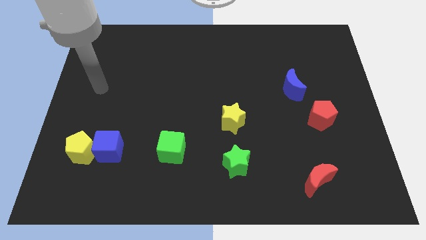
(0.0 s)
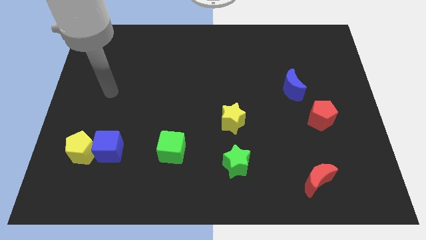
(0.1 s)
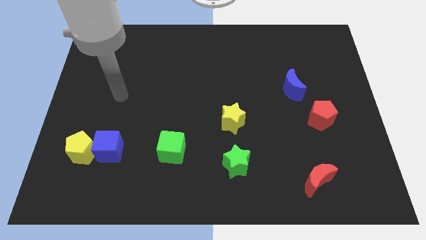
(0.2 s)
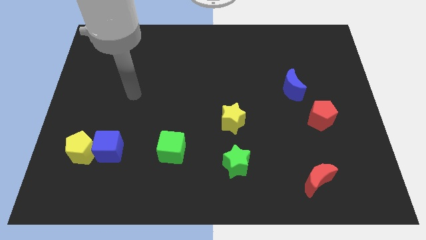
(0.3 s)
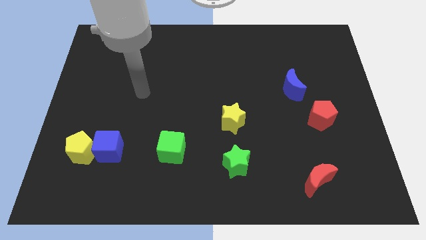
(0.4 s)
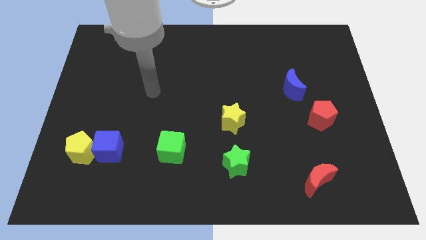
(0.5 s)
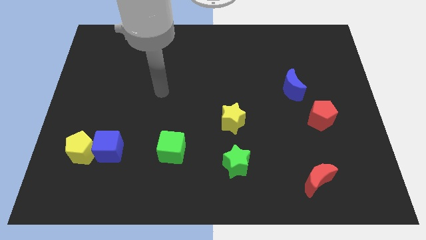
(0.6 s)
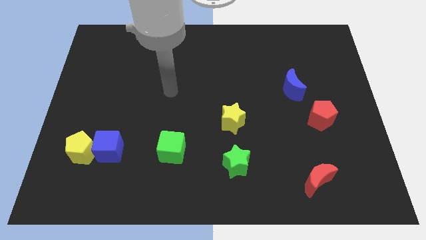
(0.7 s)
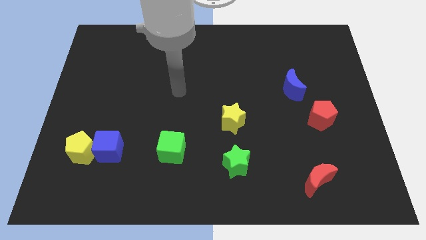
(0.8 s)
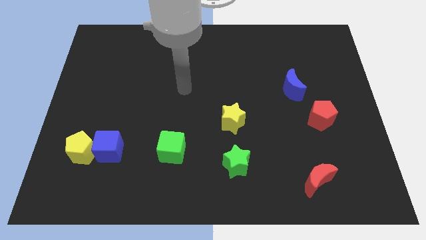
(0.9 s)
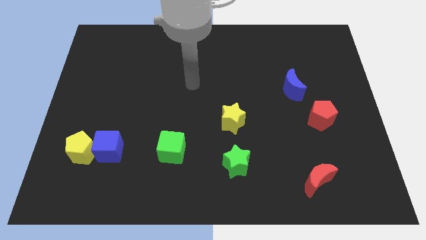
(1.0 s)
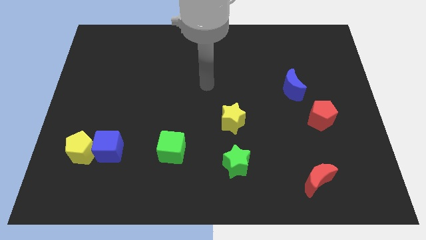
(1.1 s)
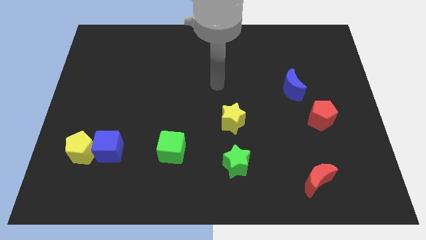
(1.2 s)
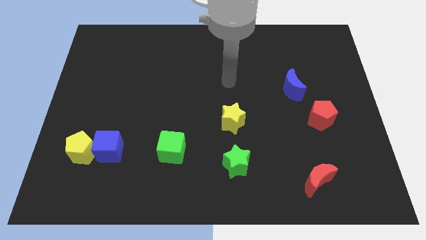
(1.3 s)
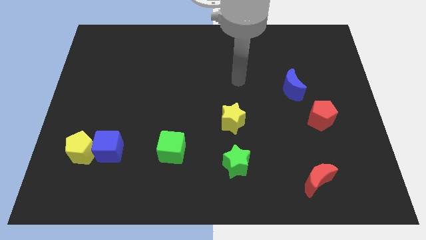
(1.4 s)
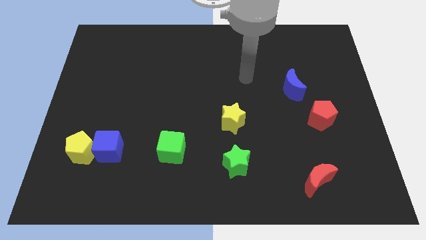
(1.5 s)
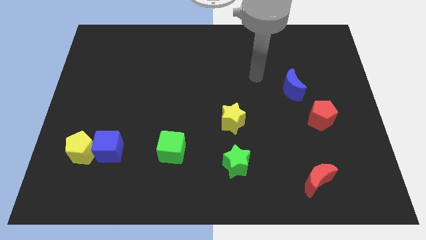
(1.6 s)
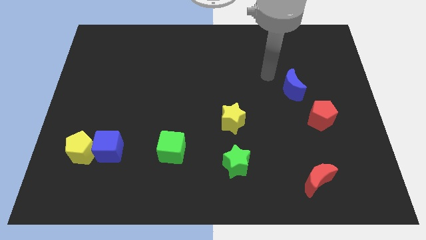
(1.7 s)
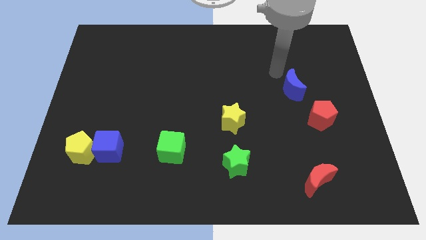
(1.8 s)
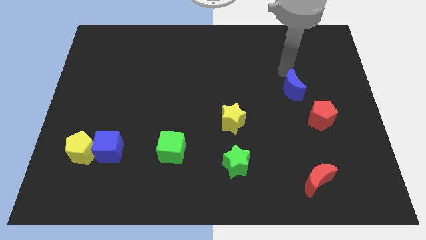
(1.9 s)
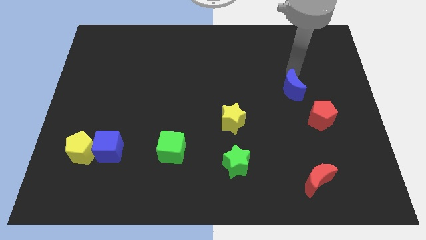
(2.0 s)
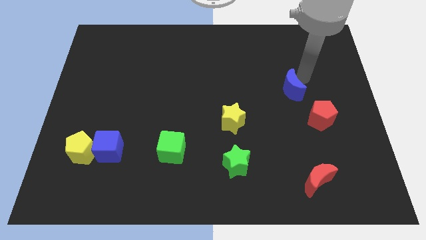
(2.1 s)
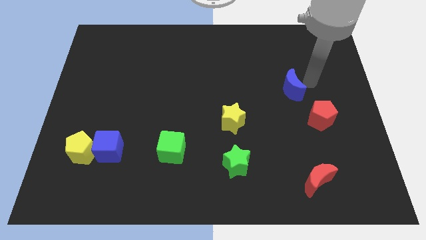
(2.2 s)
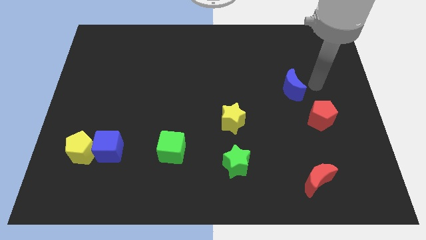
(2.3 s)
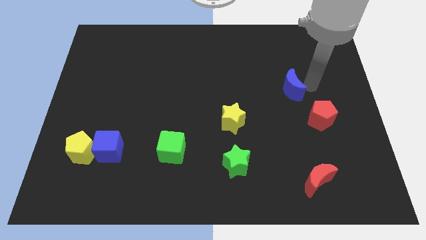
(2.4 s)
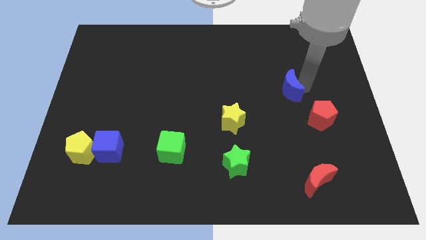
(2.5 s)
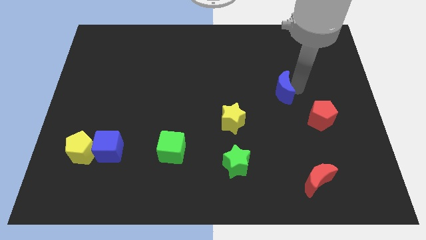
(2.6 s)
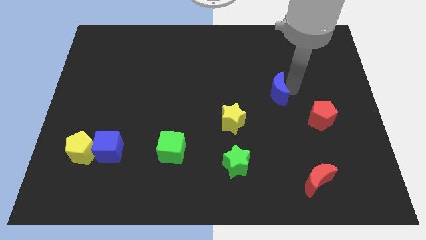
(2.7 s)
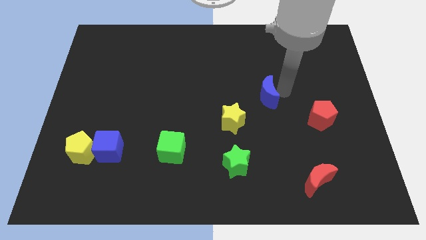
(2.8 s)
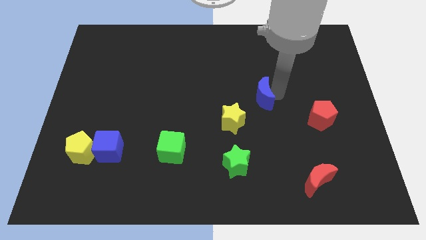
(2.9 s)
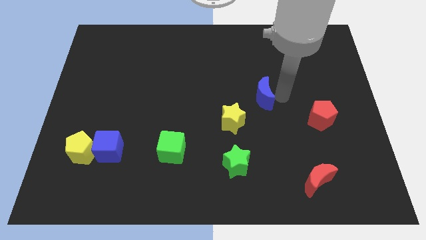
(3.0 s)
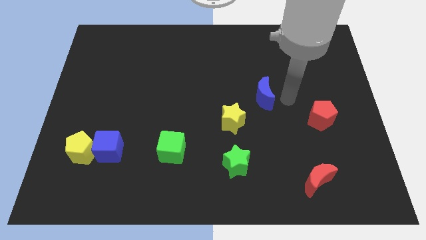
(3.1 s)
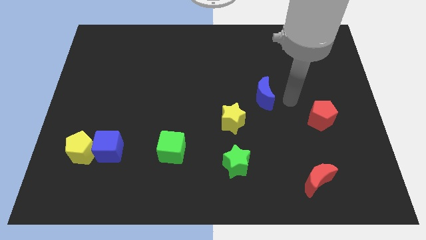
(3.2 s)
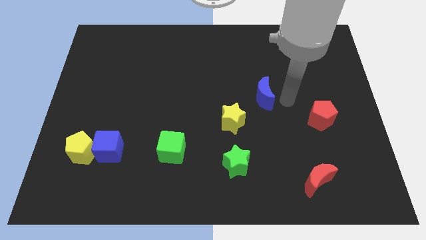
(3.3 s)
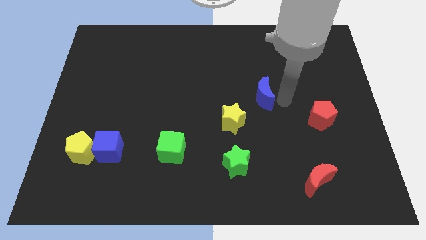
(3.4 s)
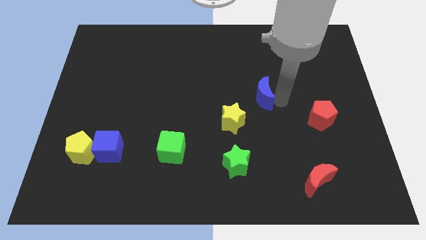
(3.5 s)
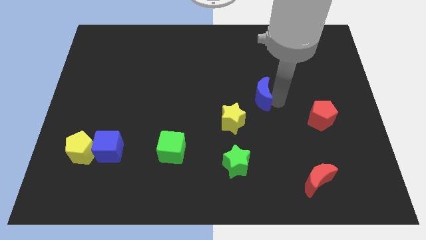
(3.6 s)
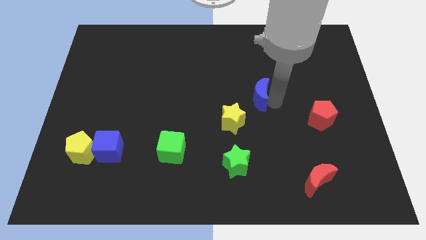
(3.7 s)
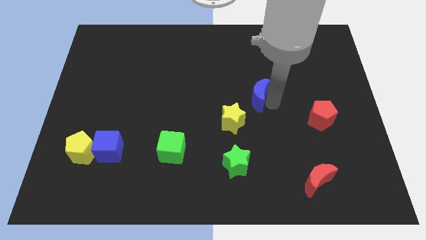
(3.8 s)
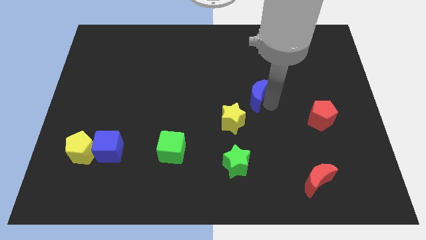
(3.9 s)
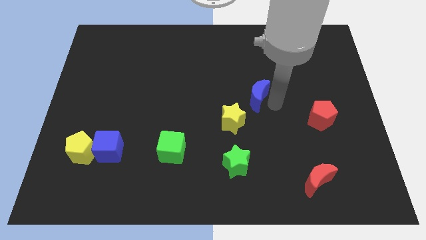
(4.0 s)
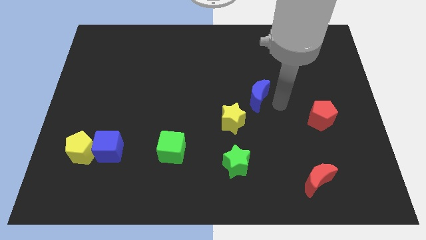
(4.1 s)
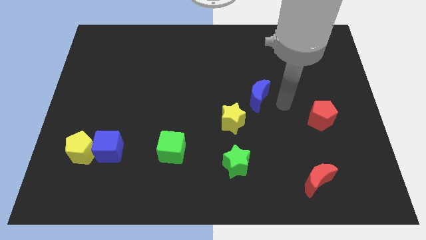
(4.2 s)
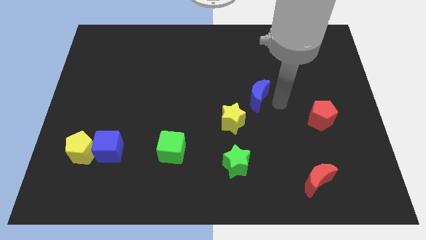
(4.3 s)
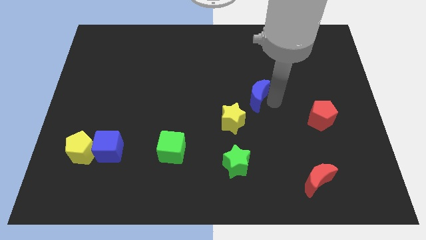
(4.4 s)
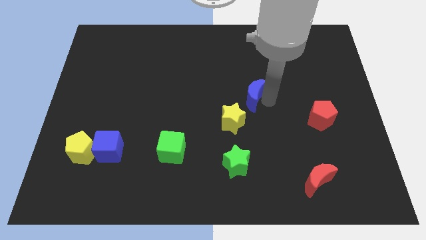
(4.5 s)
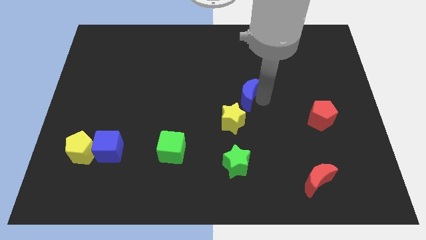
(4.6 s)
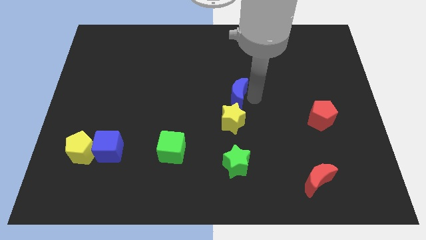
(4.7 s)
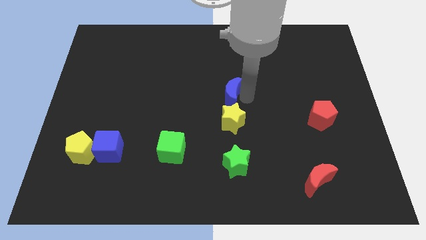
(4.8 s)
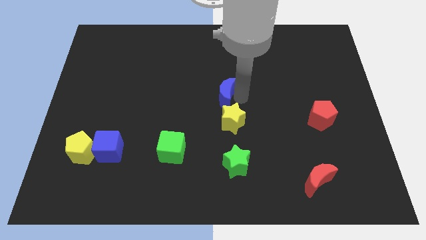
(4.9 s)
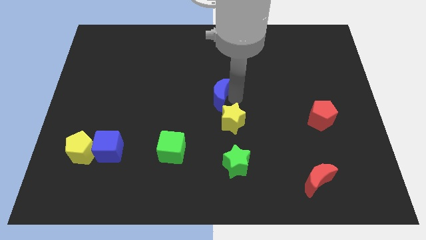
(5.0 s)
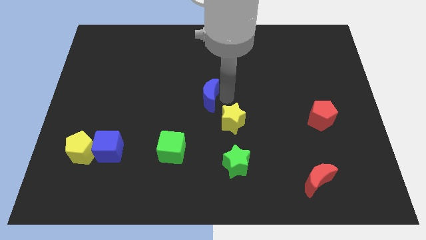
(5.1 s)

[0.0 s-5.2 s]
slide the blue moon to the left

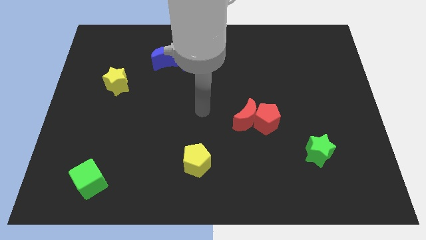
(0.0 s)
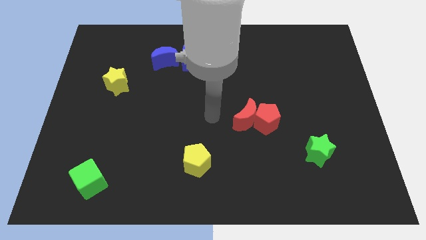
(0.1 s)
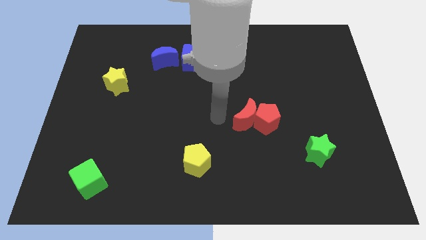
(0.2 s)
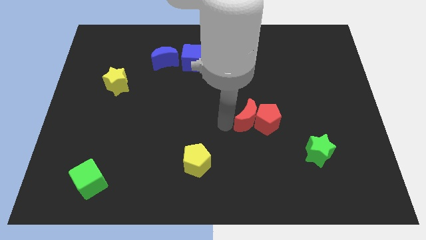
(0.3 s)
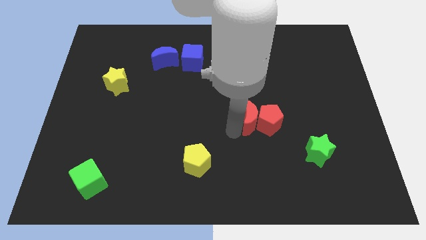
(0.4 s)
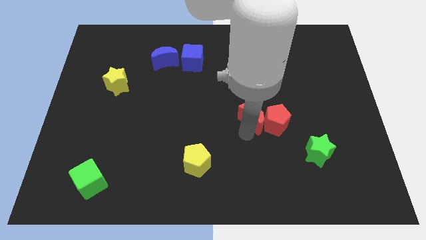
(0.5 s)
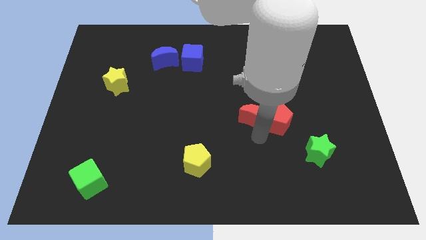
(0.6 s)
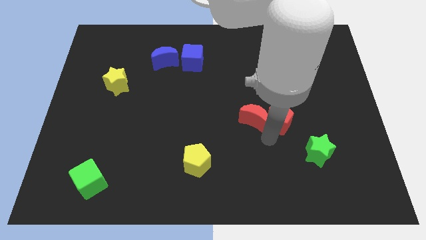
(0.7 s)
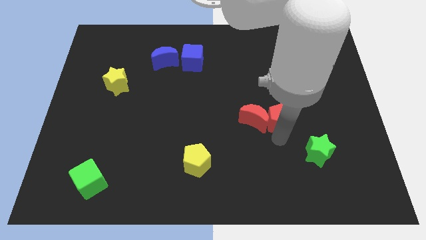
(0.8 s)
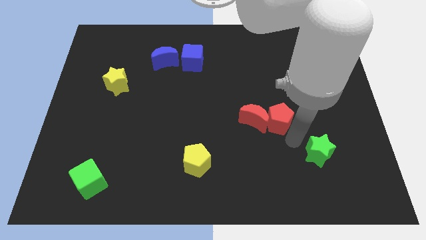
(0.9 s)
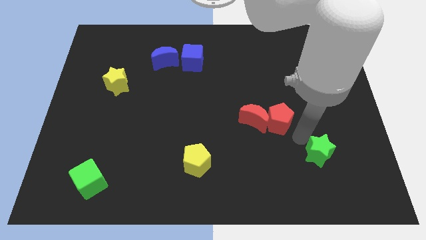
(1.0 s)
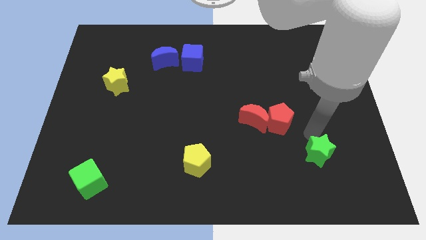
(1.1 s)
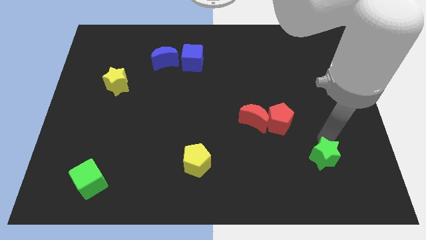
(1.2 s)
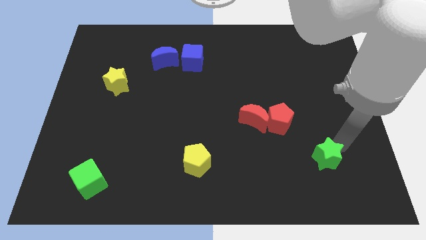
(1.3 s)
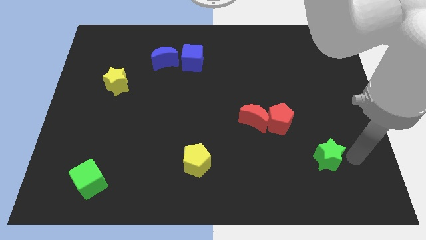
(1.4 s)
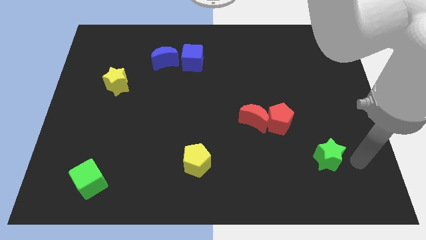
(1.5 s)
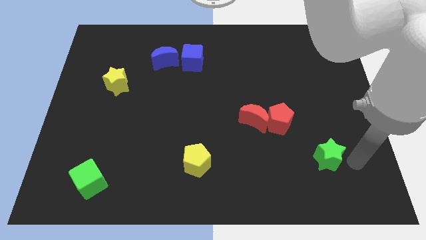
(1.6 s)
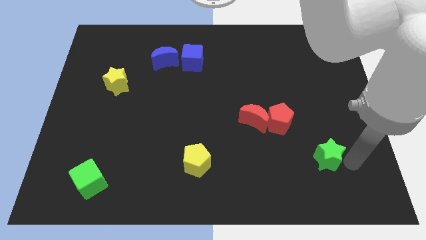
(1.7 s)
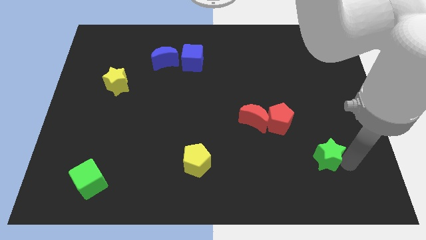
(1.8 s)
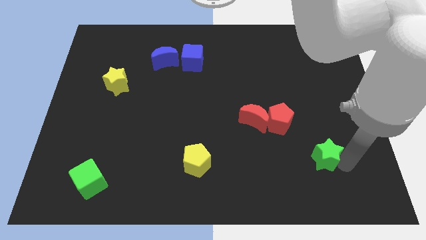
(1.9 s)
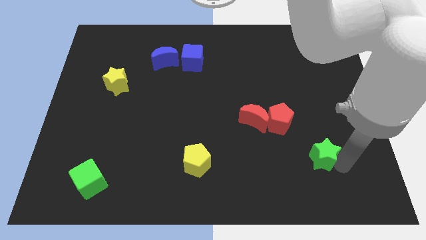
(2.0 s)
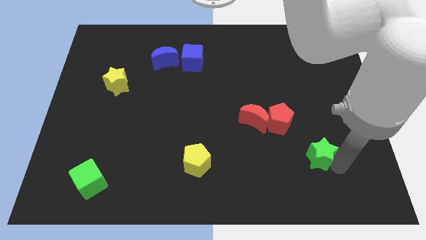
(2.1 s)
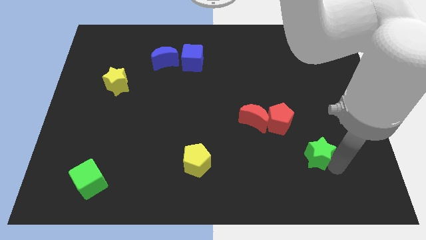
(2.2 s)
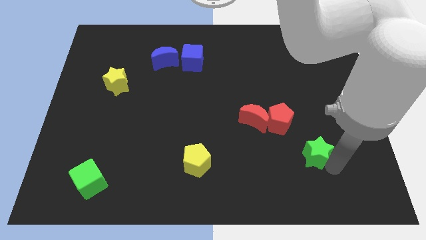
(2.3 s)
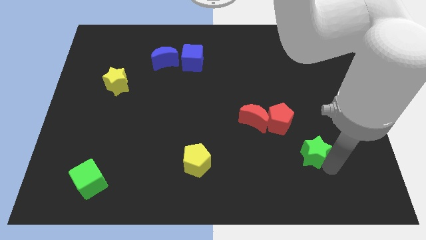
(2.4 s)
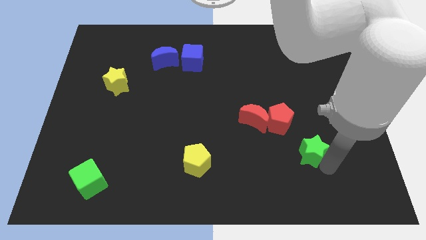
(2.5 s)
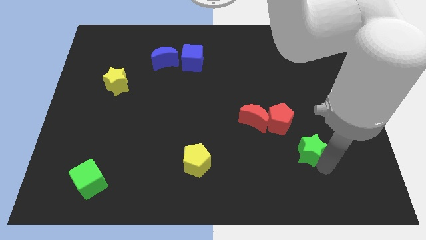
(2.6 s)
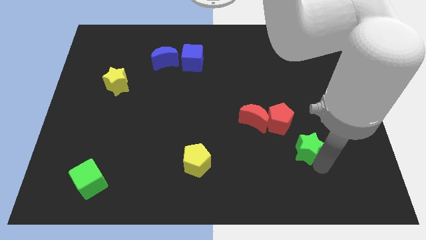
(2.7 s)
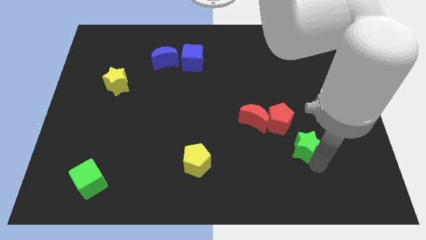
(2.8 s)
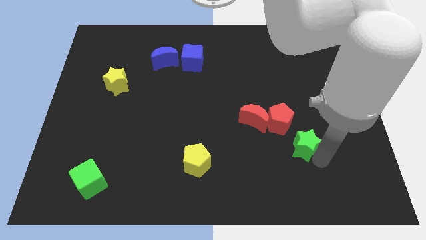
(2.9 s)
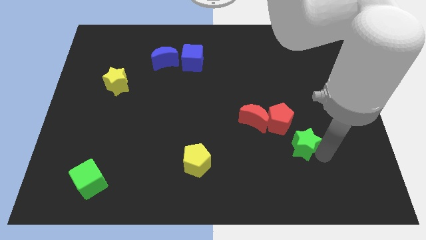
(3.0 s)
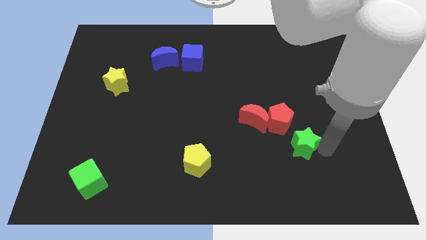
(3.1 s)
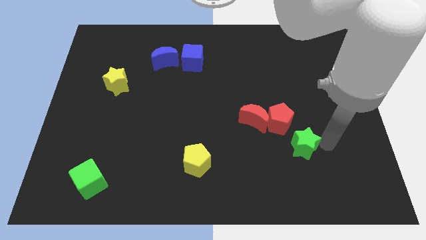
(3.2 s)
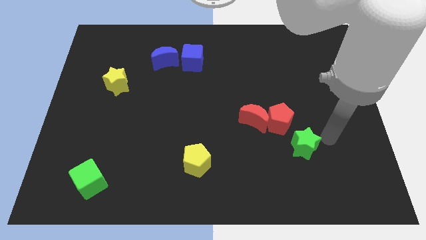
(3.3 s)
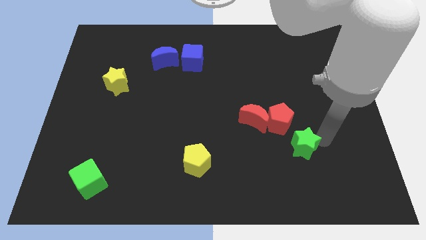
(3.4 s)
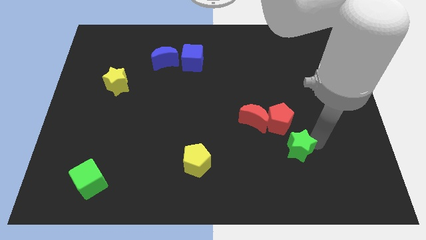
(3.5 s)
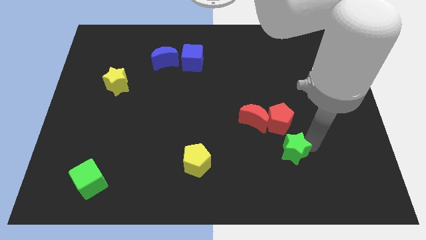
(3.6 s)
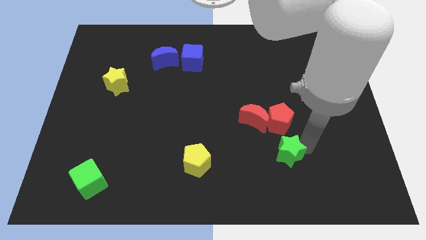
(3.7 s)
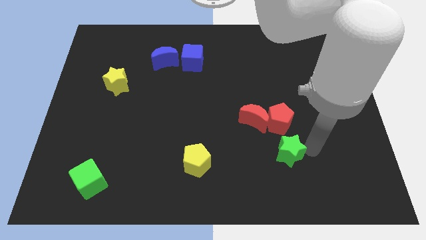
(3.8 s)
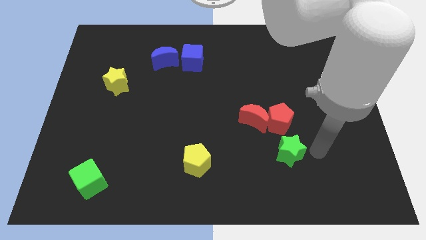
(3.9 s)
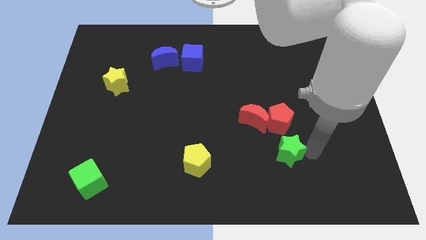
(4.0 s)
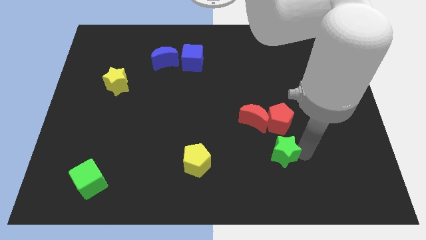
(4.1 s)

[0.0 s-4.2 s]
push the green star slightly left
